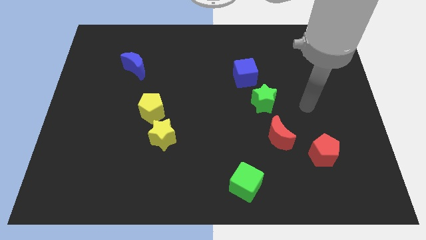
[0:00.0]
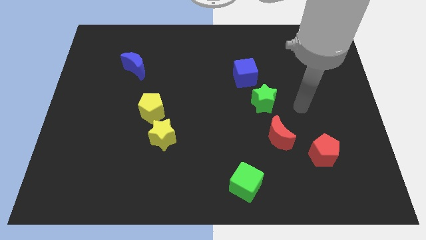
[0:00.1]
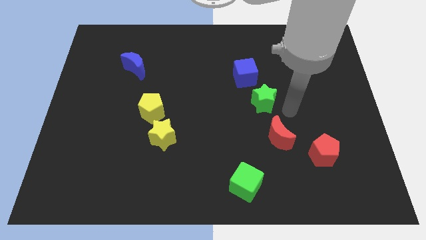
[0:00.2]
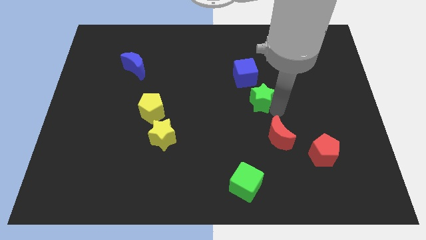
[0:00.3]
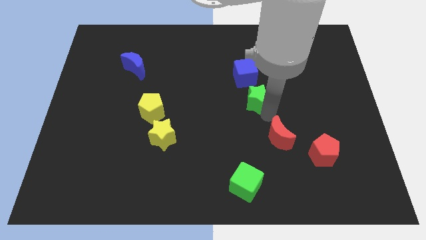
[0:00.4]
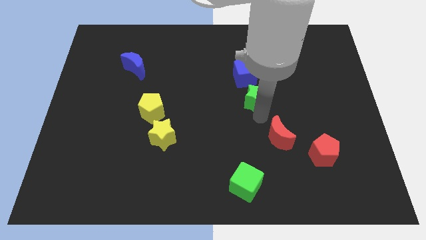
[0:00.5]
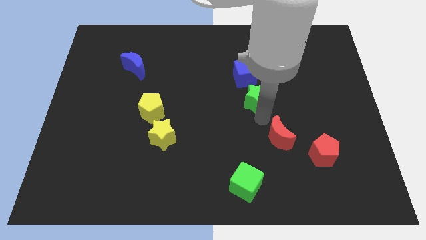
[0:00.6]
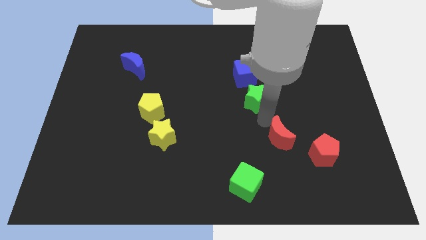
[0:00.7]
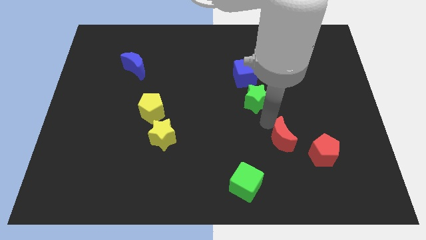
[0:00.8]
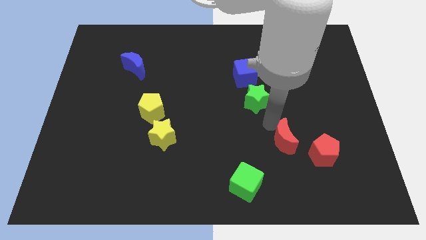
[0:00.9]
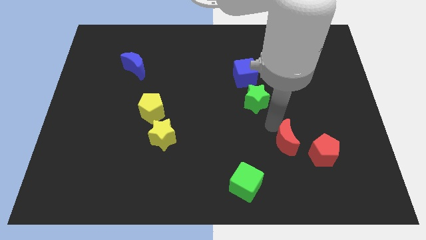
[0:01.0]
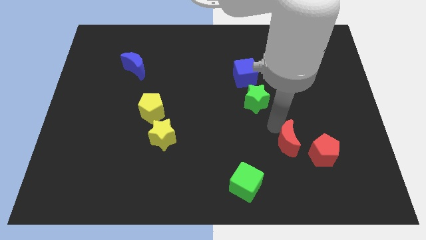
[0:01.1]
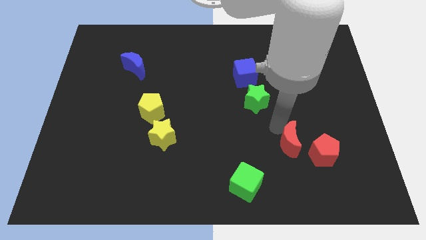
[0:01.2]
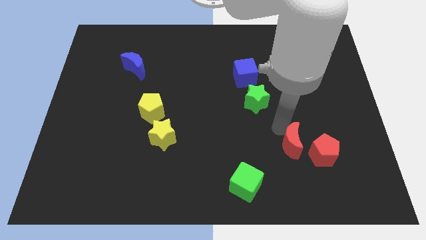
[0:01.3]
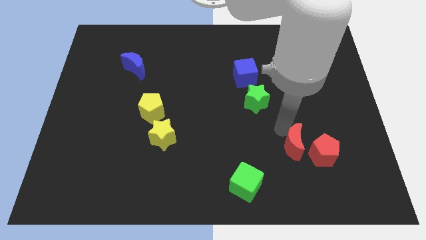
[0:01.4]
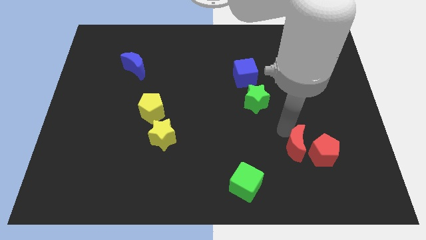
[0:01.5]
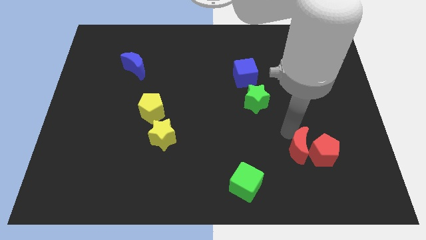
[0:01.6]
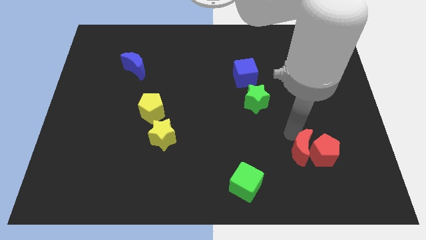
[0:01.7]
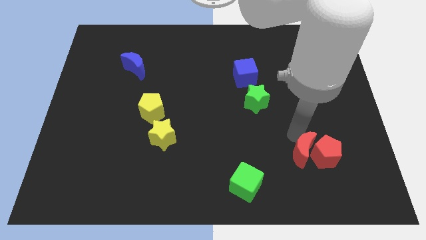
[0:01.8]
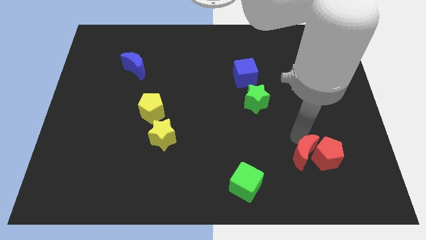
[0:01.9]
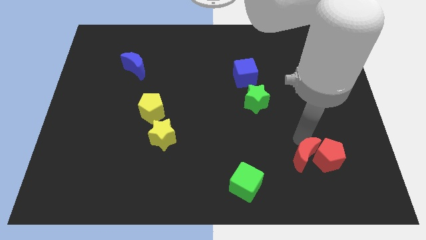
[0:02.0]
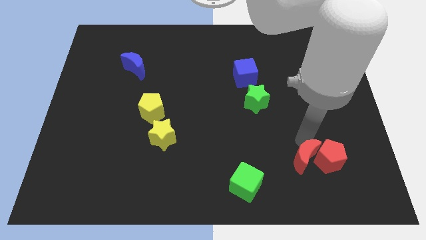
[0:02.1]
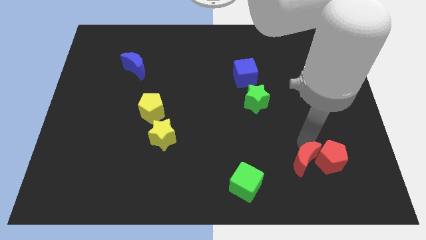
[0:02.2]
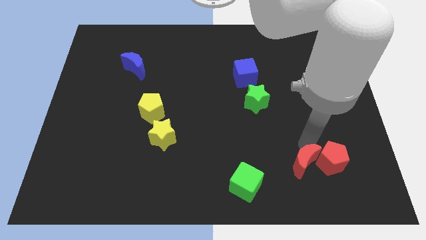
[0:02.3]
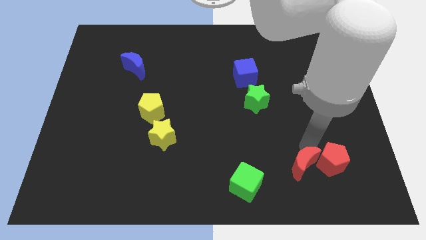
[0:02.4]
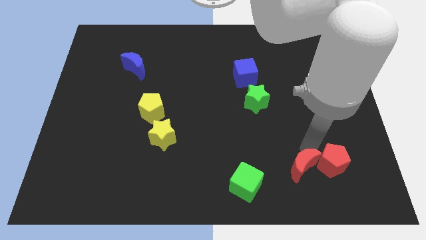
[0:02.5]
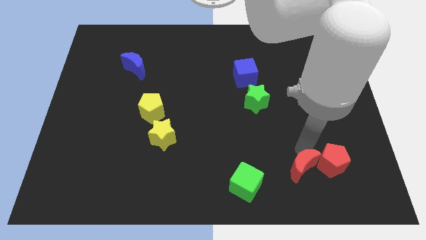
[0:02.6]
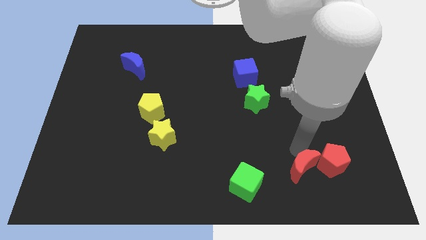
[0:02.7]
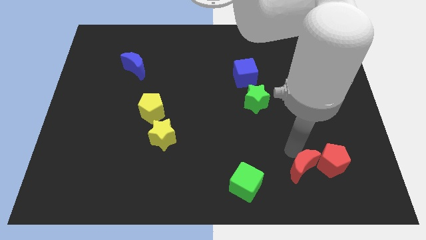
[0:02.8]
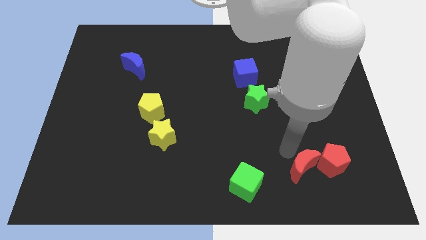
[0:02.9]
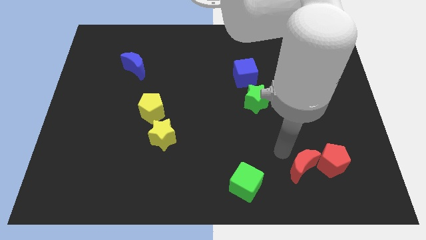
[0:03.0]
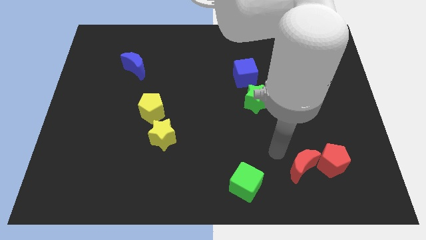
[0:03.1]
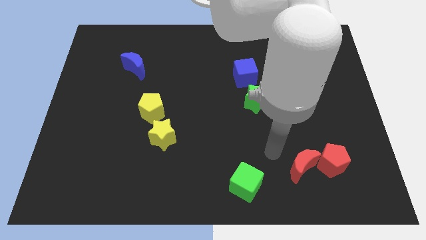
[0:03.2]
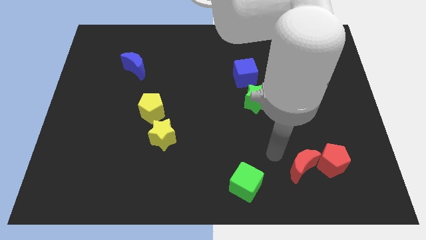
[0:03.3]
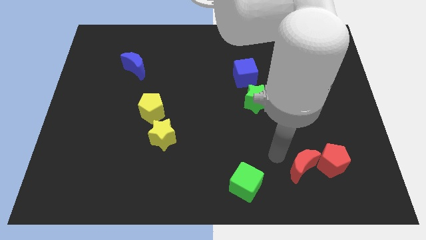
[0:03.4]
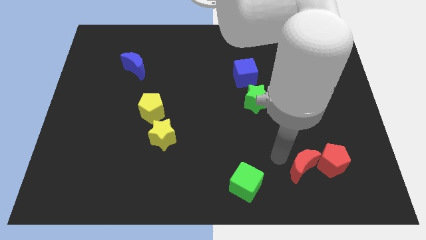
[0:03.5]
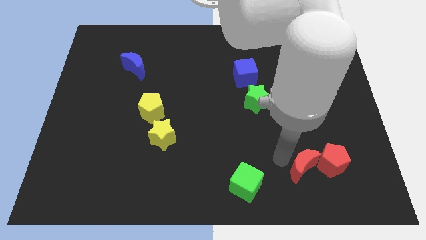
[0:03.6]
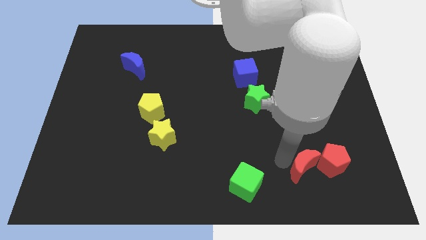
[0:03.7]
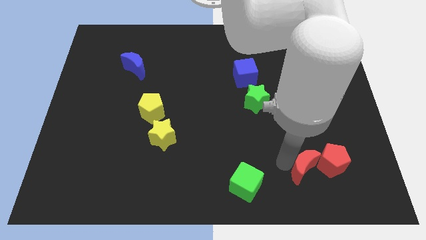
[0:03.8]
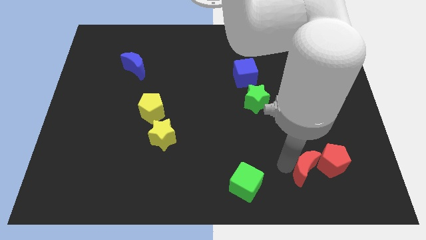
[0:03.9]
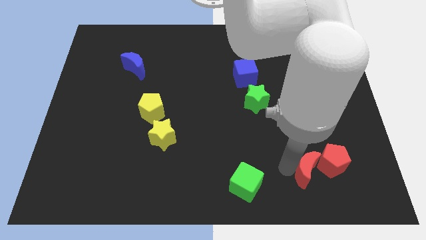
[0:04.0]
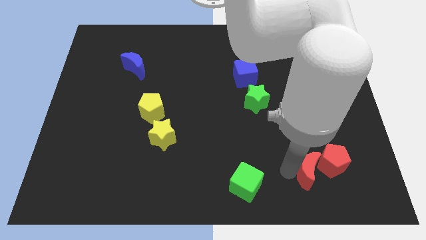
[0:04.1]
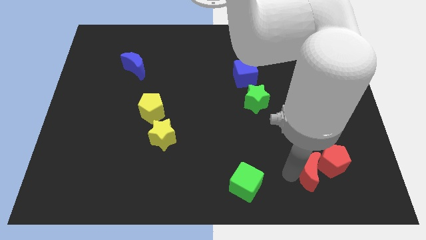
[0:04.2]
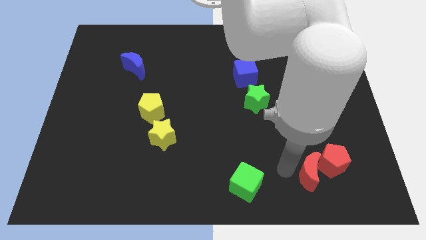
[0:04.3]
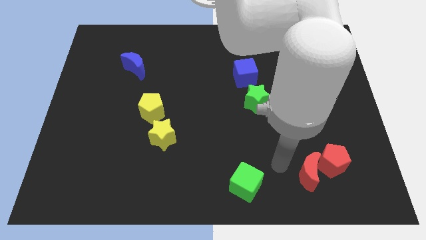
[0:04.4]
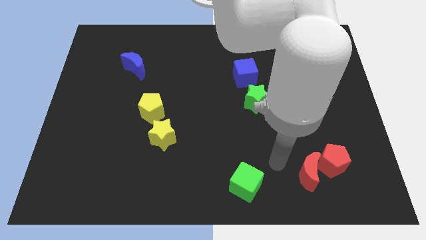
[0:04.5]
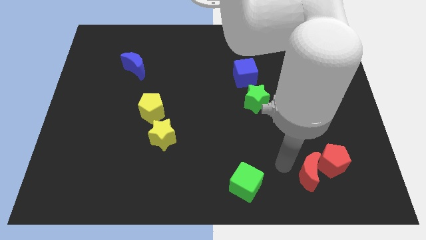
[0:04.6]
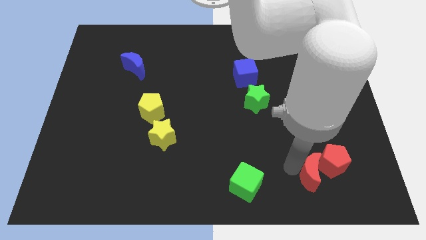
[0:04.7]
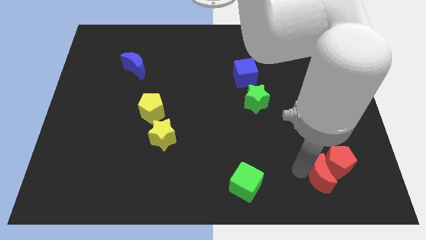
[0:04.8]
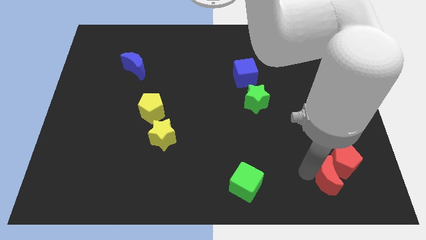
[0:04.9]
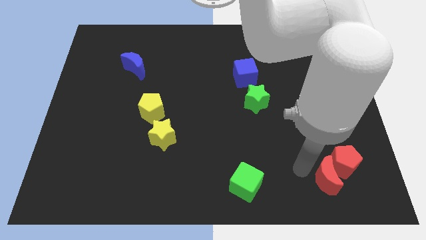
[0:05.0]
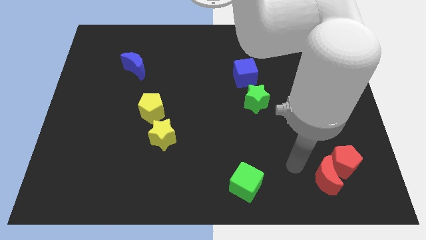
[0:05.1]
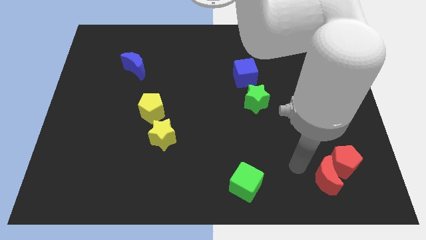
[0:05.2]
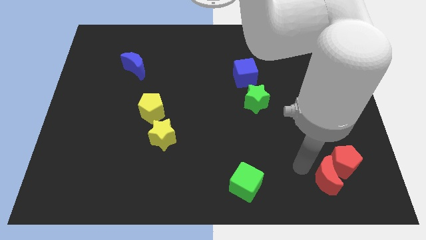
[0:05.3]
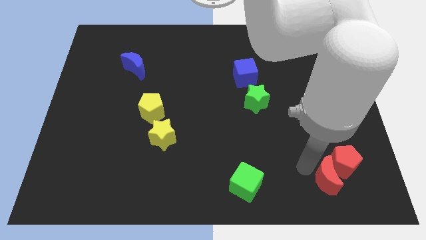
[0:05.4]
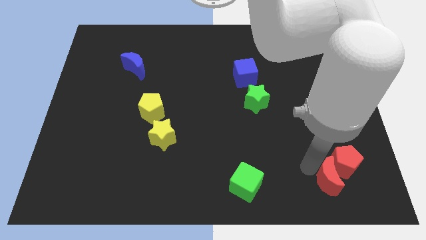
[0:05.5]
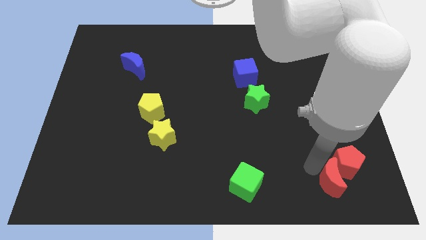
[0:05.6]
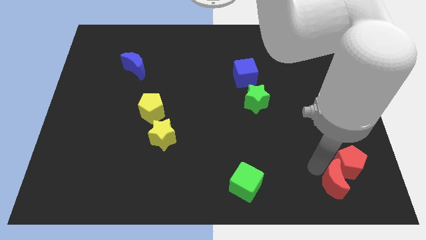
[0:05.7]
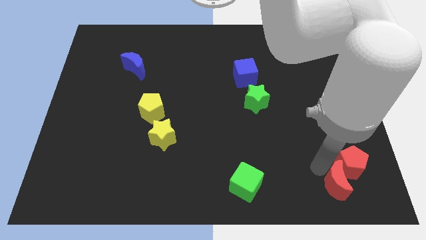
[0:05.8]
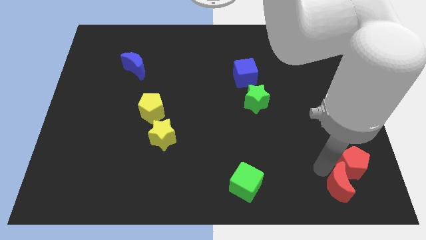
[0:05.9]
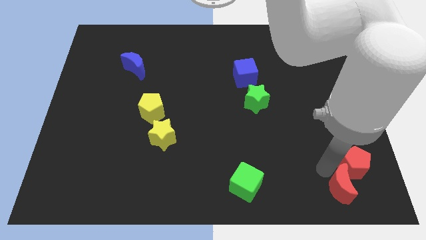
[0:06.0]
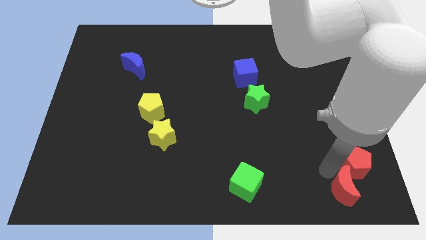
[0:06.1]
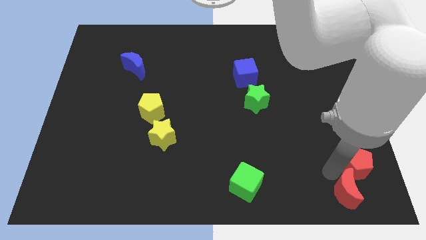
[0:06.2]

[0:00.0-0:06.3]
put the red moon to the bottom right of the board
